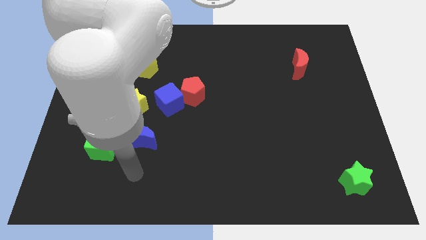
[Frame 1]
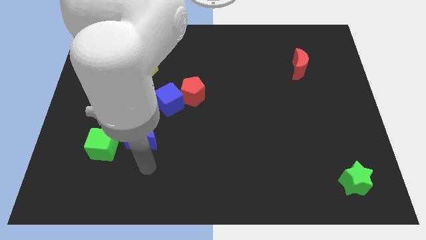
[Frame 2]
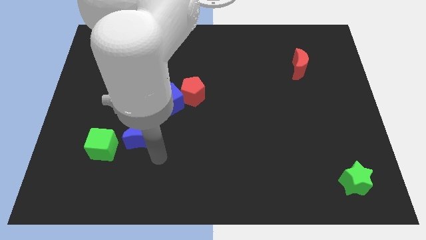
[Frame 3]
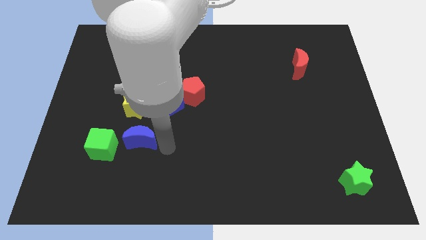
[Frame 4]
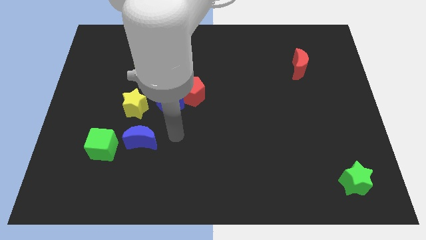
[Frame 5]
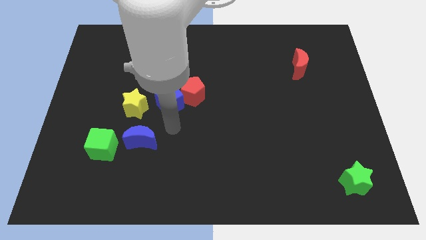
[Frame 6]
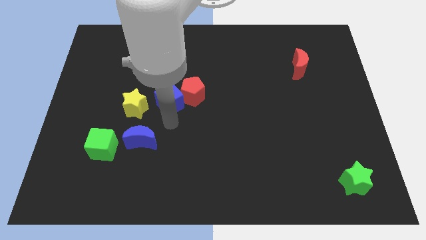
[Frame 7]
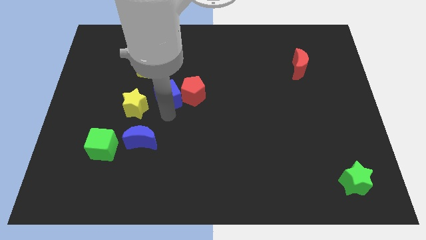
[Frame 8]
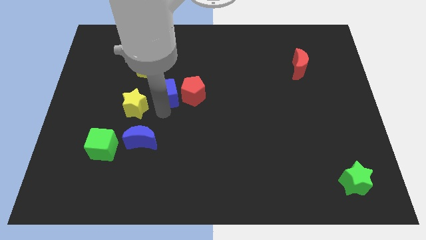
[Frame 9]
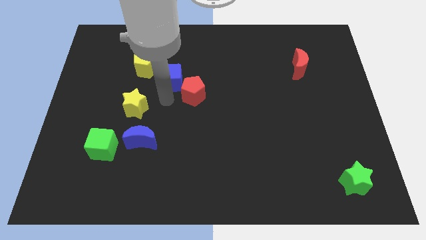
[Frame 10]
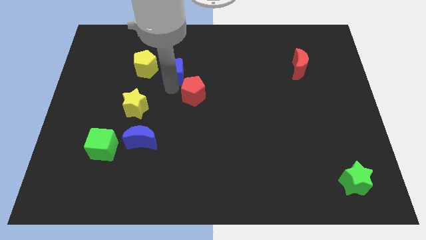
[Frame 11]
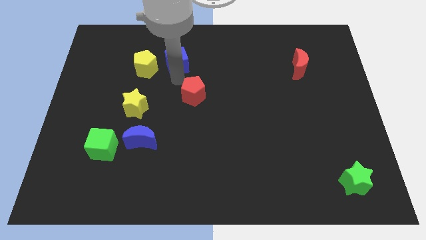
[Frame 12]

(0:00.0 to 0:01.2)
separate the red pentagon from the blue cube

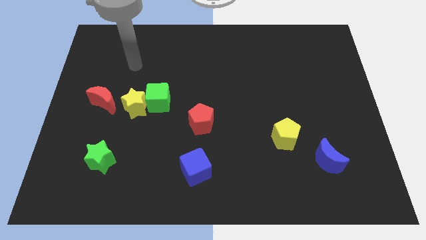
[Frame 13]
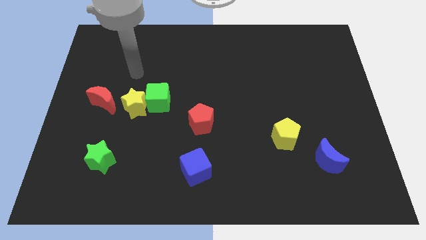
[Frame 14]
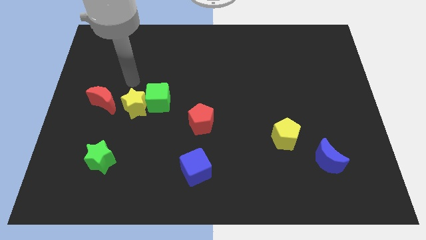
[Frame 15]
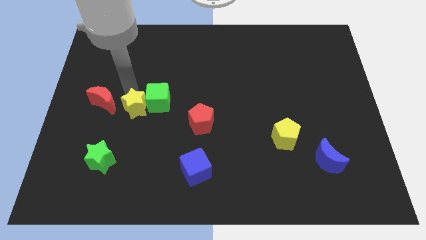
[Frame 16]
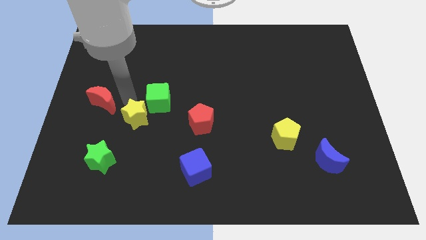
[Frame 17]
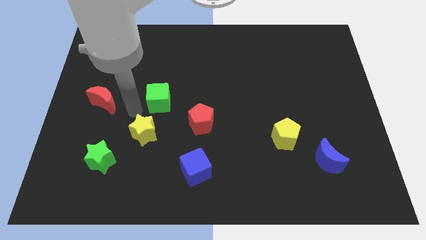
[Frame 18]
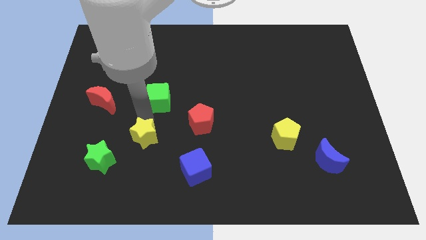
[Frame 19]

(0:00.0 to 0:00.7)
move the green cube away from the yellow star

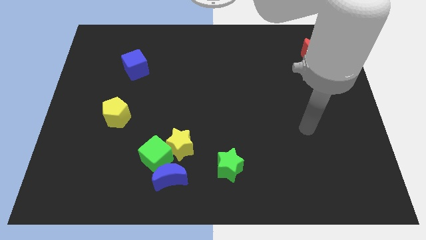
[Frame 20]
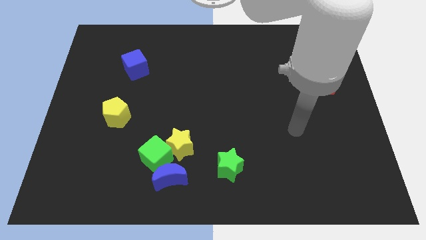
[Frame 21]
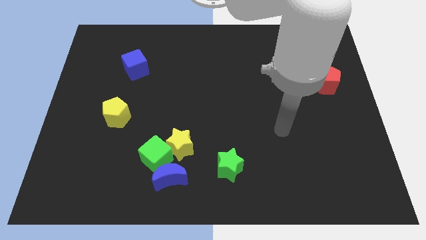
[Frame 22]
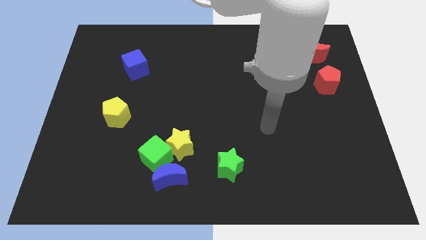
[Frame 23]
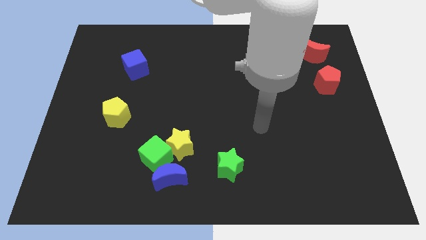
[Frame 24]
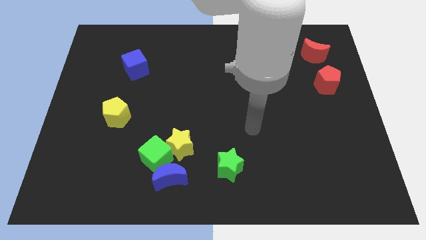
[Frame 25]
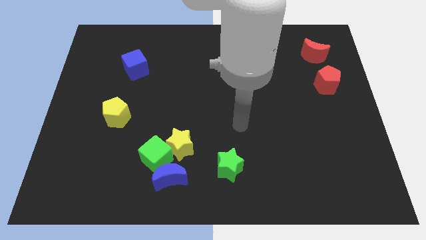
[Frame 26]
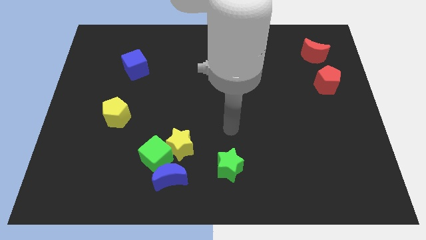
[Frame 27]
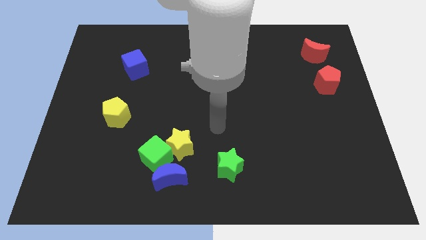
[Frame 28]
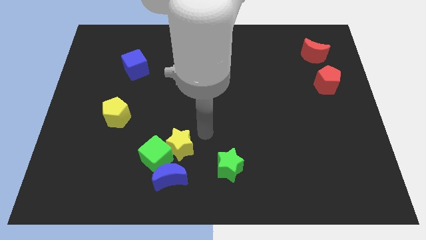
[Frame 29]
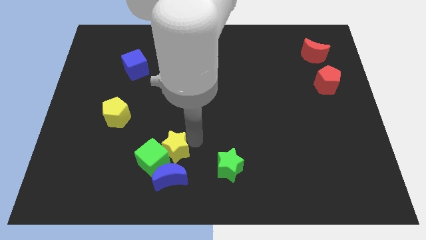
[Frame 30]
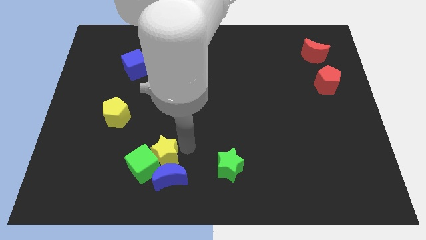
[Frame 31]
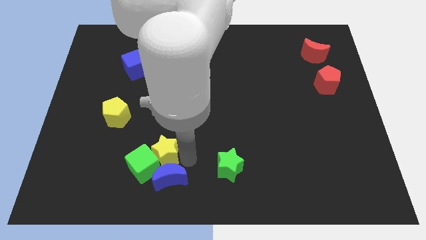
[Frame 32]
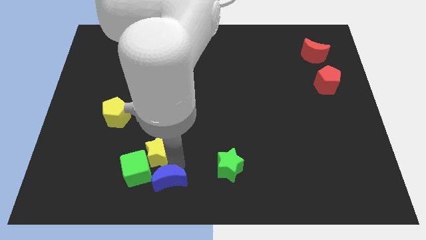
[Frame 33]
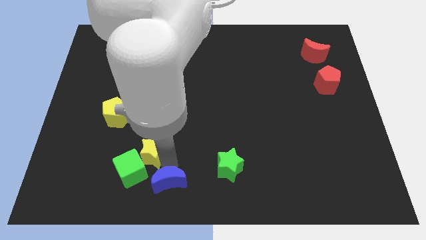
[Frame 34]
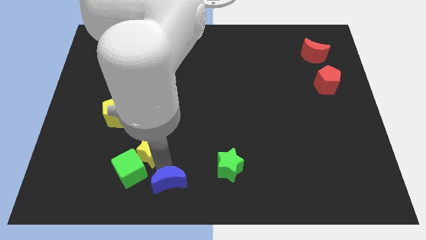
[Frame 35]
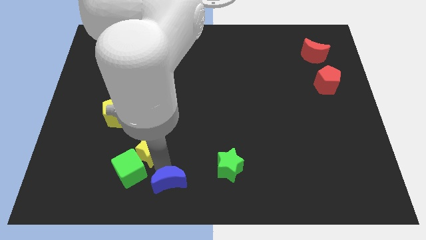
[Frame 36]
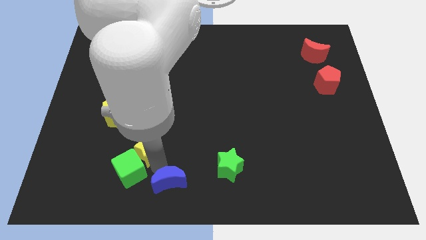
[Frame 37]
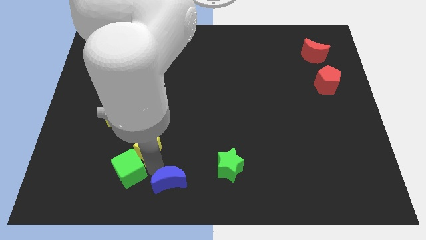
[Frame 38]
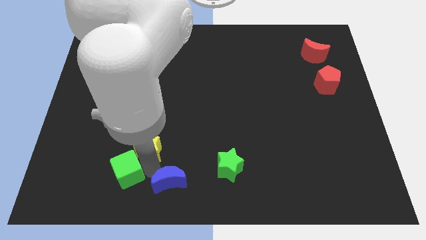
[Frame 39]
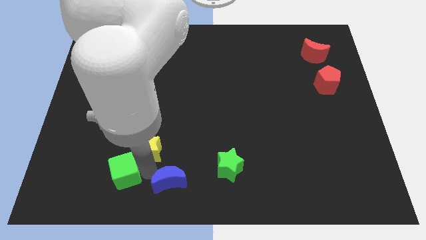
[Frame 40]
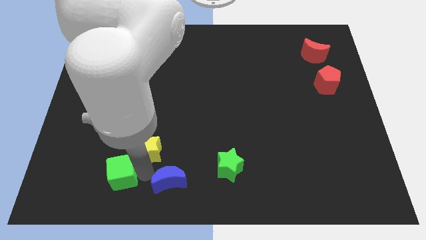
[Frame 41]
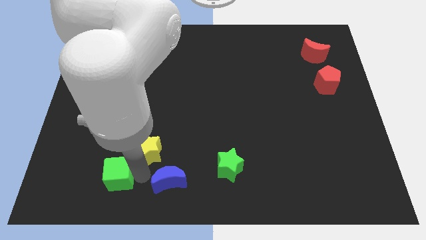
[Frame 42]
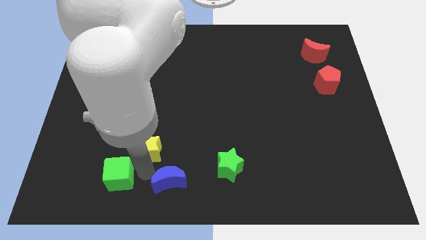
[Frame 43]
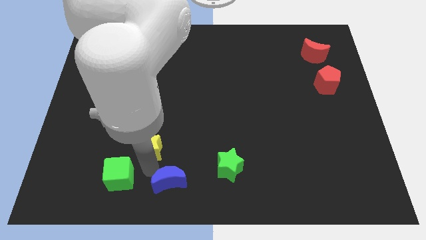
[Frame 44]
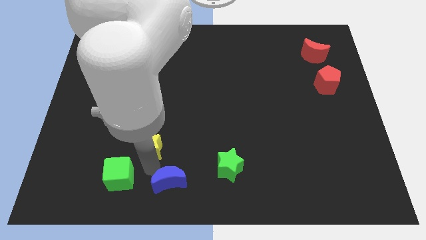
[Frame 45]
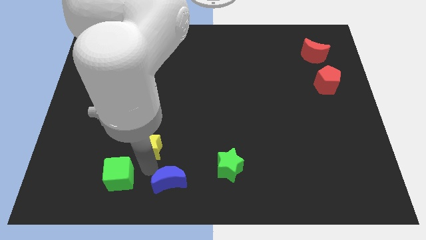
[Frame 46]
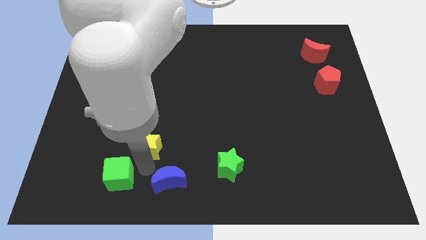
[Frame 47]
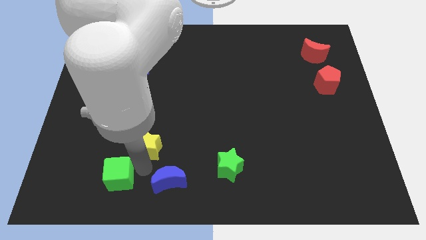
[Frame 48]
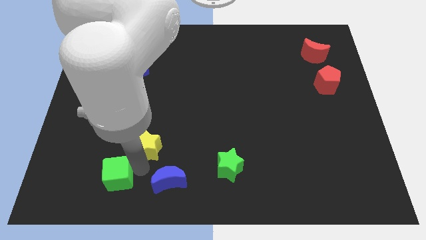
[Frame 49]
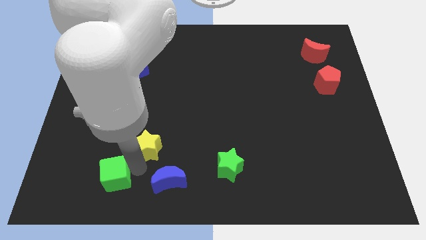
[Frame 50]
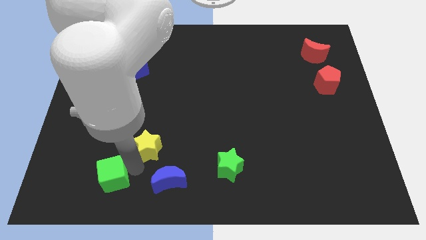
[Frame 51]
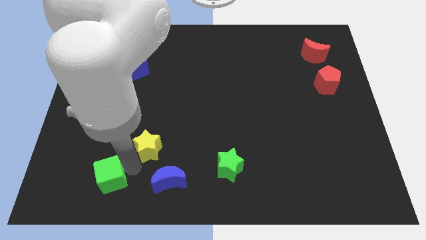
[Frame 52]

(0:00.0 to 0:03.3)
separate the green cube from the blue moon and yellow star

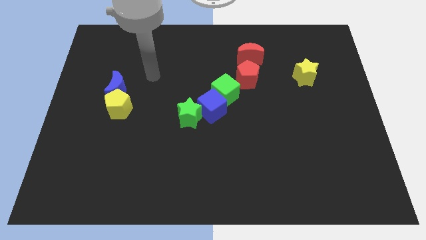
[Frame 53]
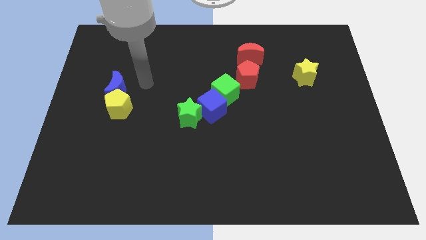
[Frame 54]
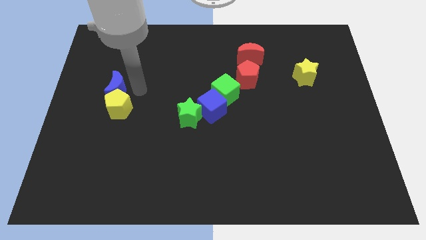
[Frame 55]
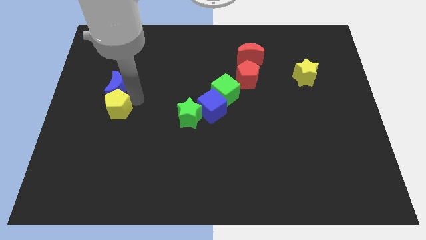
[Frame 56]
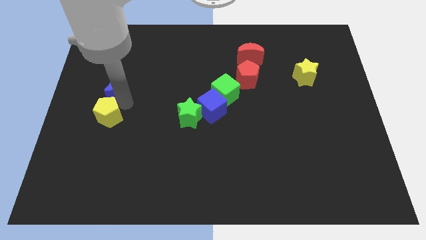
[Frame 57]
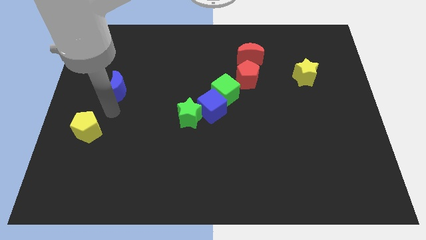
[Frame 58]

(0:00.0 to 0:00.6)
pull the blue moon apart from the yellow pentagon

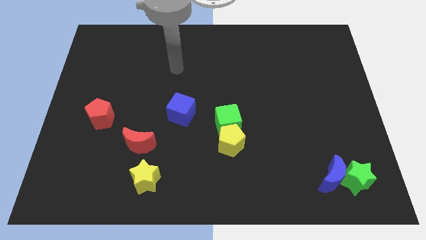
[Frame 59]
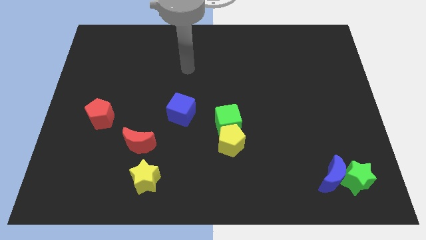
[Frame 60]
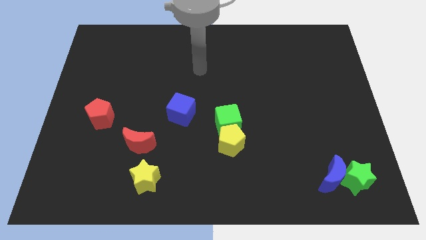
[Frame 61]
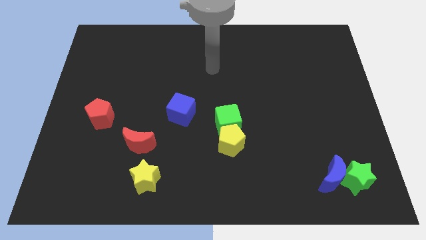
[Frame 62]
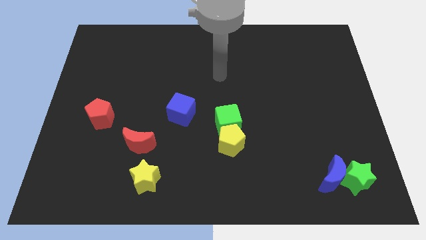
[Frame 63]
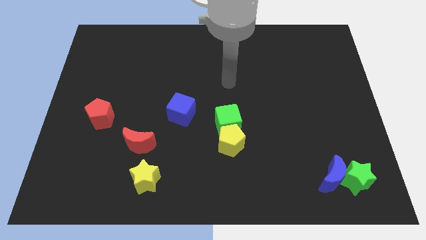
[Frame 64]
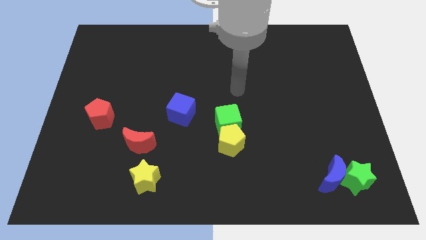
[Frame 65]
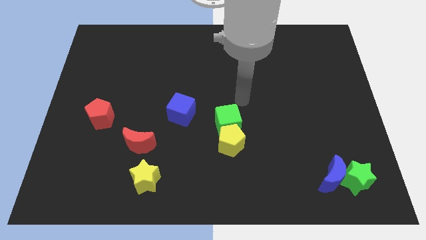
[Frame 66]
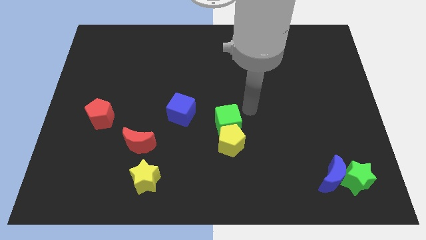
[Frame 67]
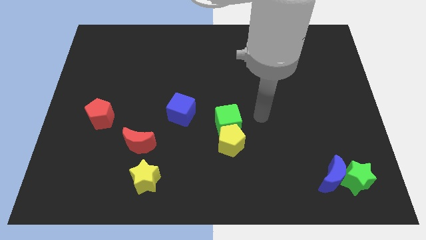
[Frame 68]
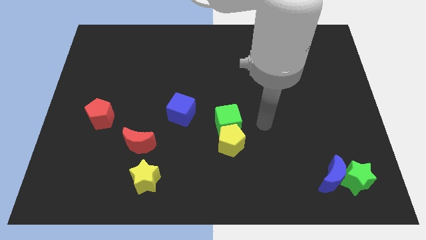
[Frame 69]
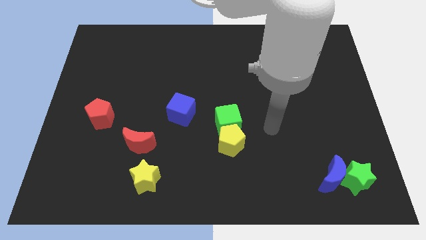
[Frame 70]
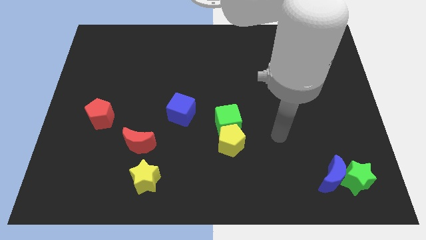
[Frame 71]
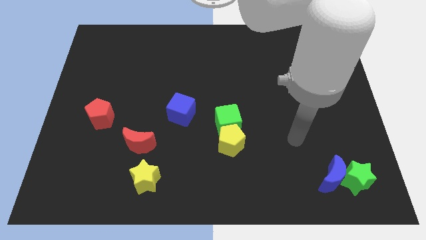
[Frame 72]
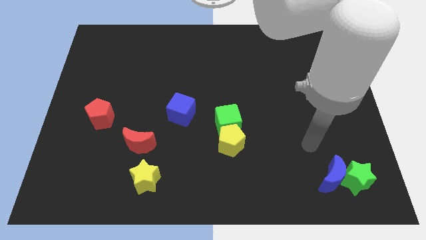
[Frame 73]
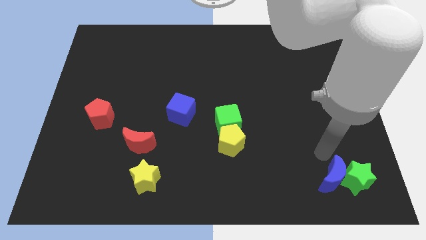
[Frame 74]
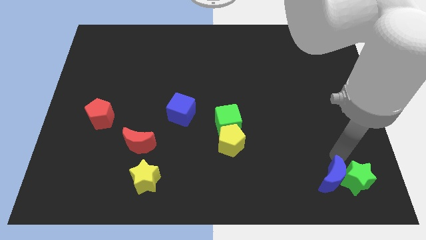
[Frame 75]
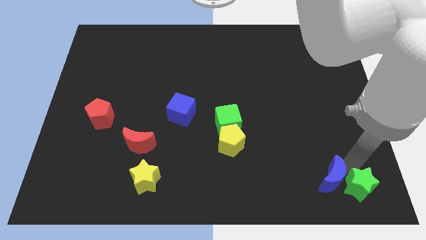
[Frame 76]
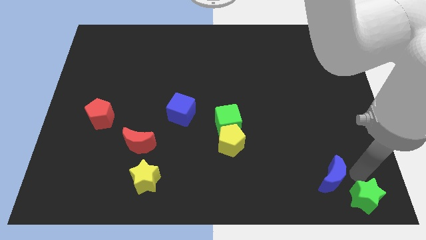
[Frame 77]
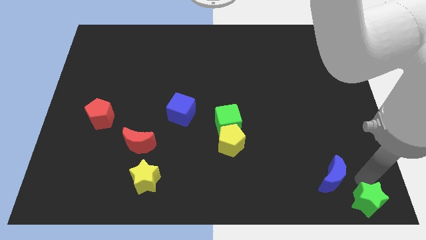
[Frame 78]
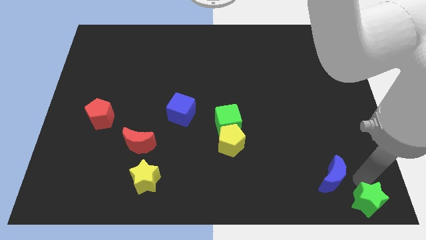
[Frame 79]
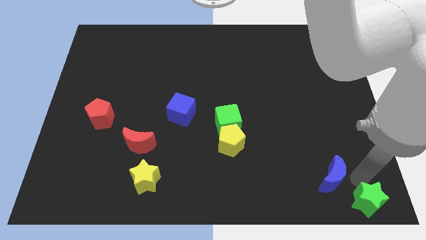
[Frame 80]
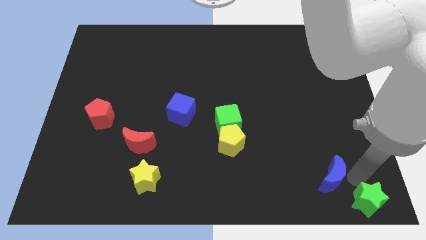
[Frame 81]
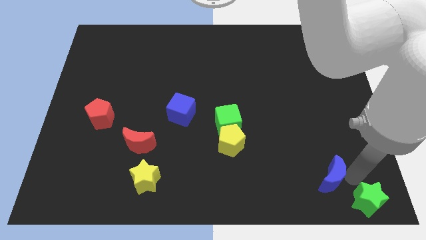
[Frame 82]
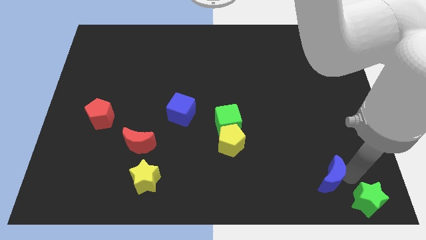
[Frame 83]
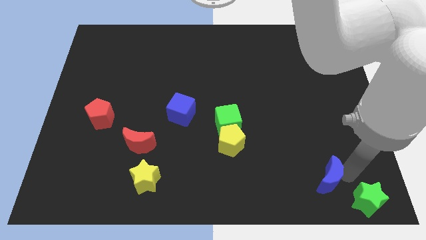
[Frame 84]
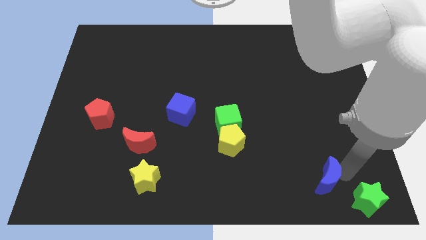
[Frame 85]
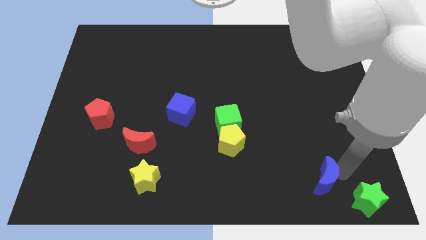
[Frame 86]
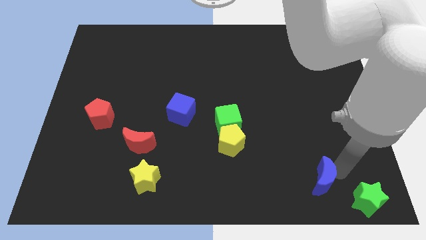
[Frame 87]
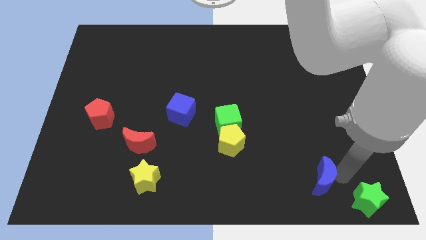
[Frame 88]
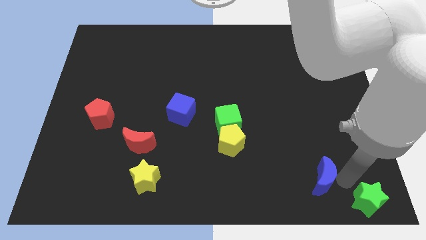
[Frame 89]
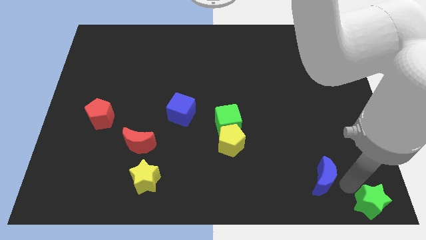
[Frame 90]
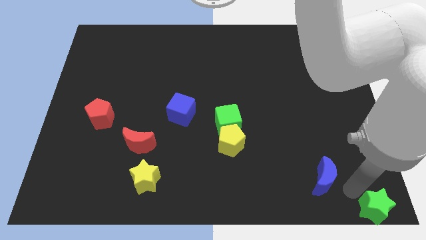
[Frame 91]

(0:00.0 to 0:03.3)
pull the blue moon apart from the green star

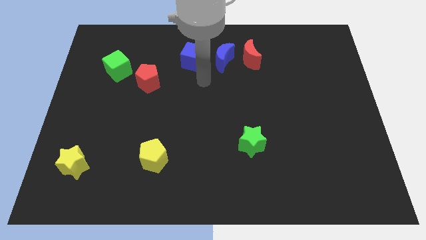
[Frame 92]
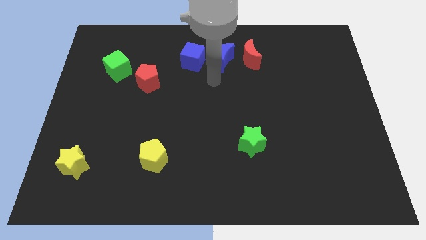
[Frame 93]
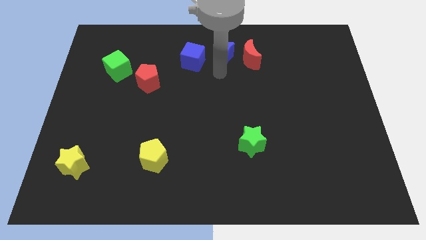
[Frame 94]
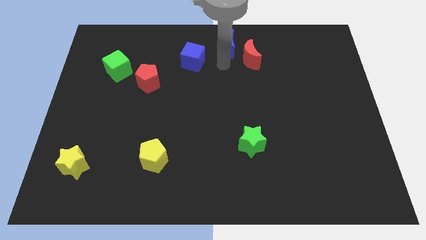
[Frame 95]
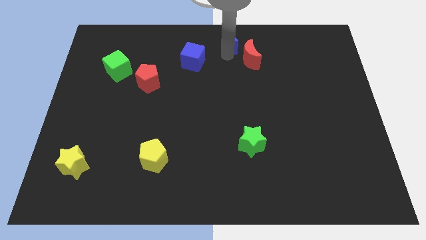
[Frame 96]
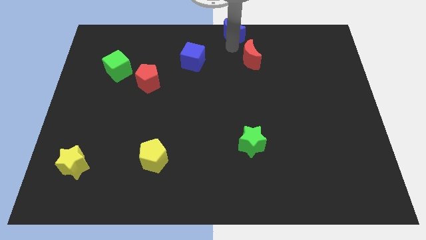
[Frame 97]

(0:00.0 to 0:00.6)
separate the red moon from the blue moon
